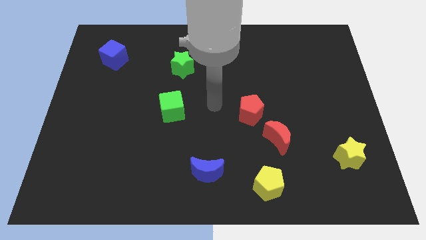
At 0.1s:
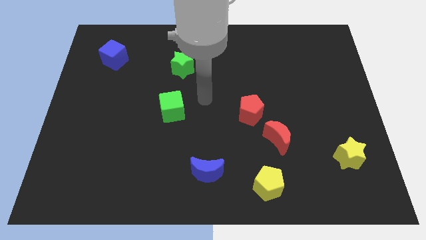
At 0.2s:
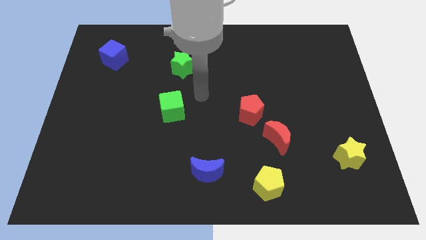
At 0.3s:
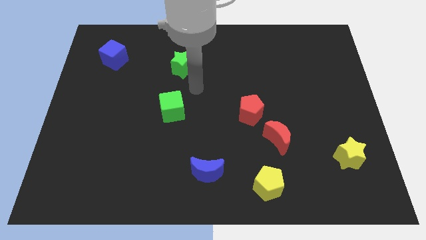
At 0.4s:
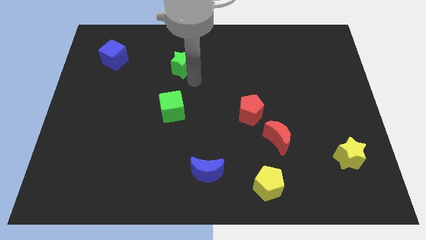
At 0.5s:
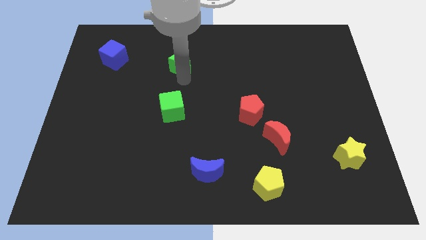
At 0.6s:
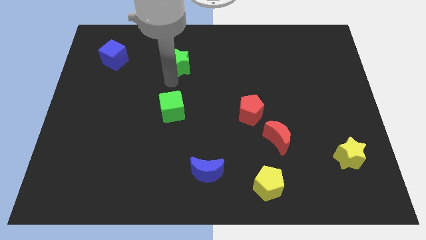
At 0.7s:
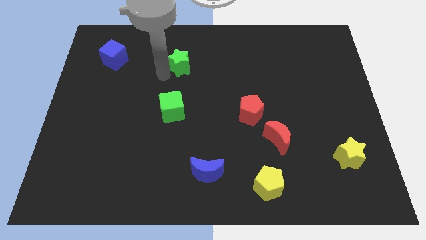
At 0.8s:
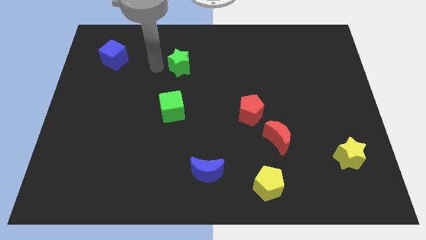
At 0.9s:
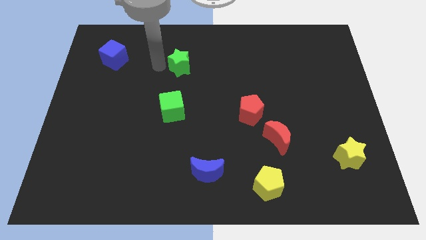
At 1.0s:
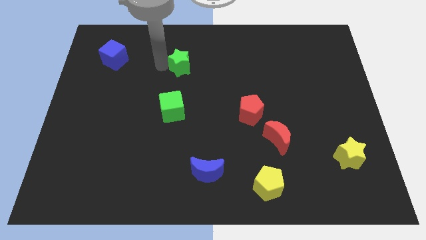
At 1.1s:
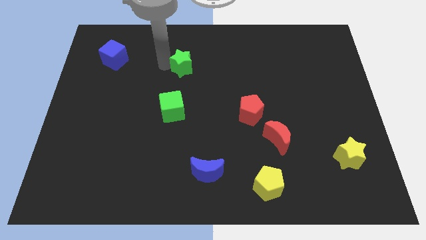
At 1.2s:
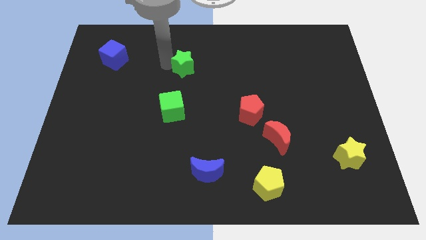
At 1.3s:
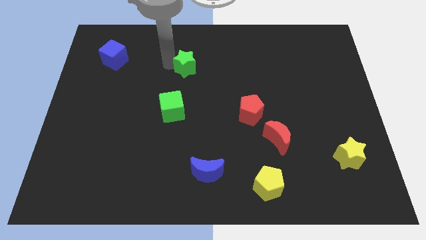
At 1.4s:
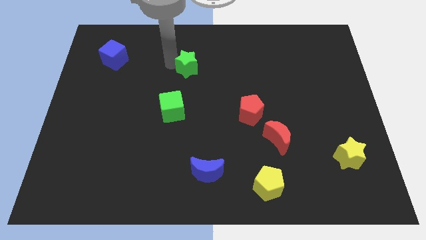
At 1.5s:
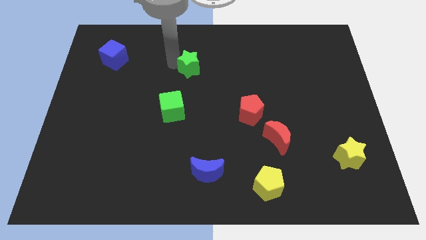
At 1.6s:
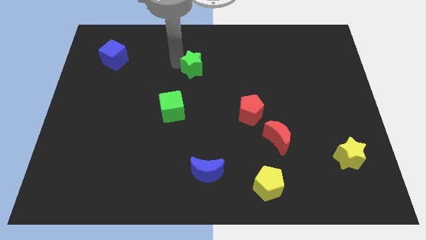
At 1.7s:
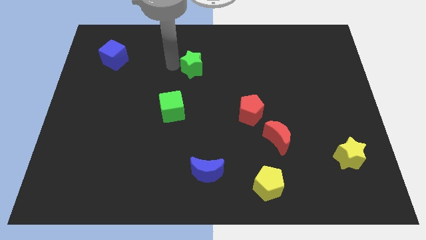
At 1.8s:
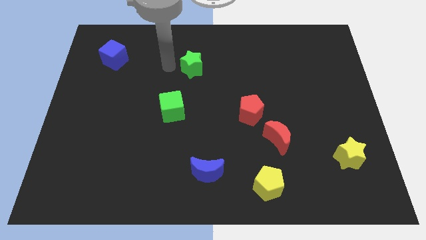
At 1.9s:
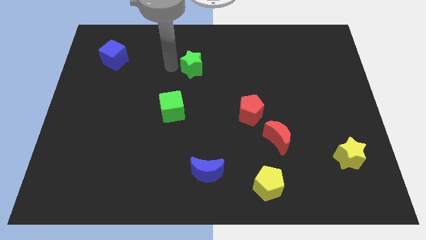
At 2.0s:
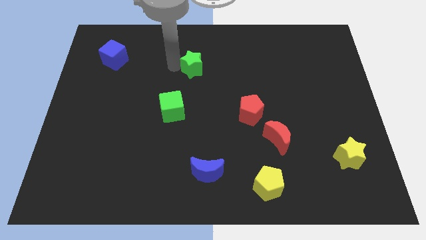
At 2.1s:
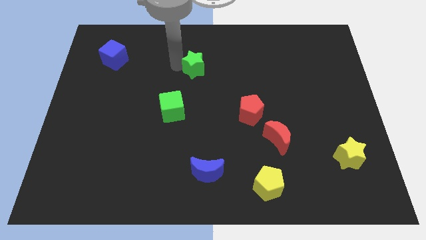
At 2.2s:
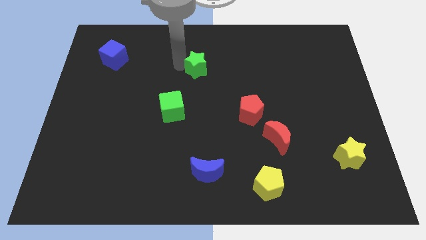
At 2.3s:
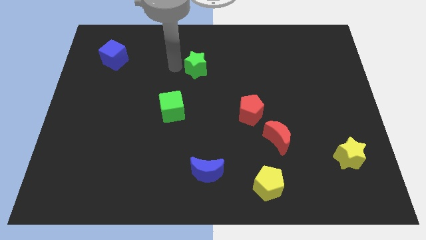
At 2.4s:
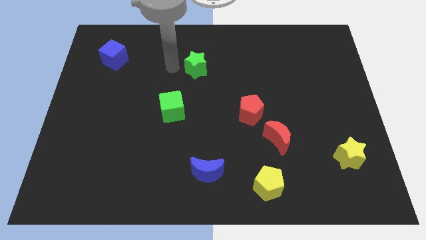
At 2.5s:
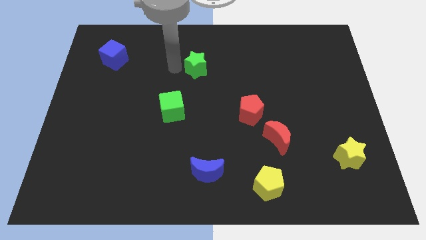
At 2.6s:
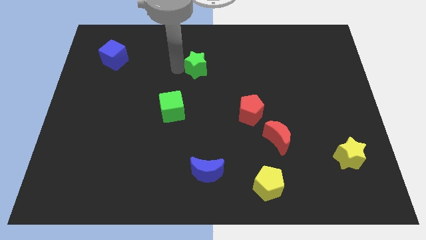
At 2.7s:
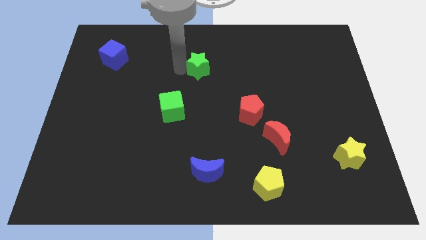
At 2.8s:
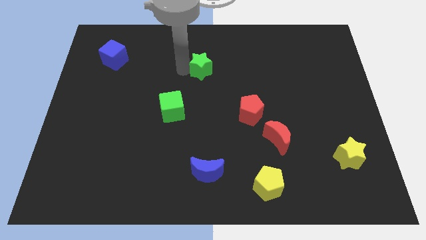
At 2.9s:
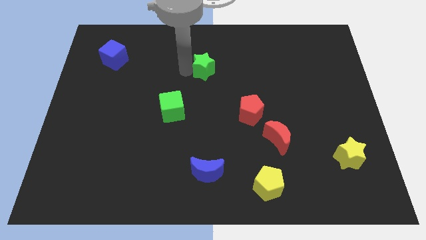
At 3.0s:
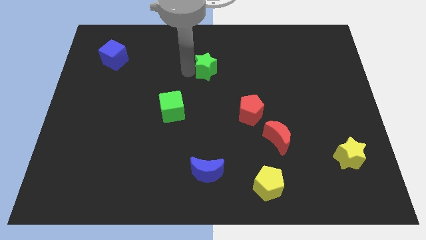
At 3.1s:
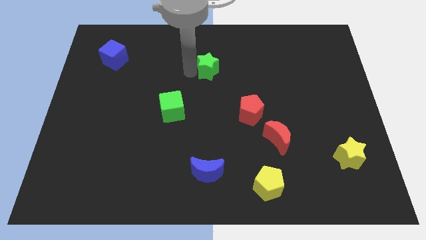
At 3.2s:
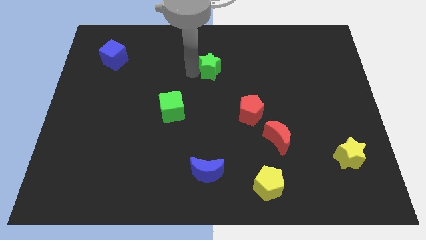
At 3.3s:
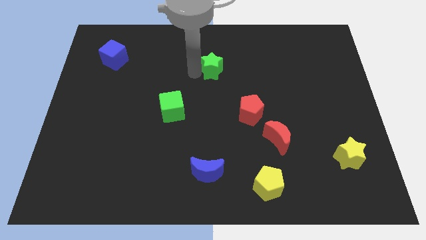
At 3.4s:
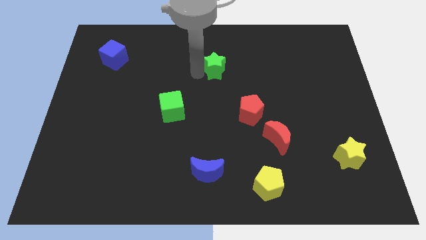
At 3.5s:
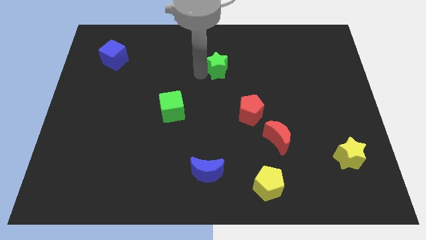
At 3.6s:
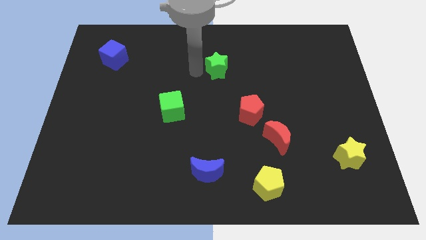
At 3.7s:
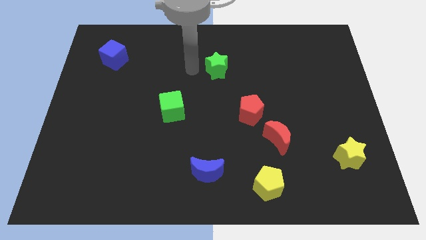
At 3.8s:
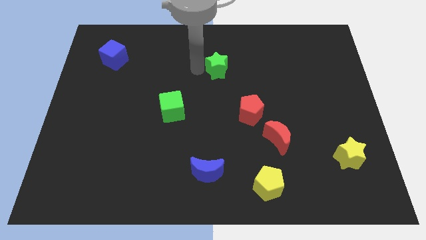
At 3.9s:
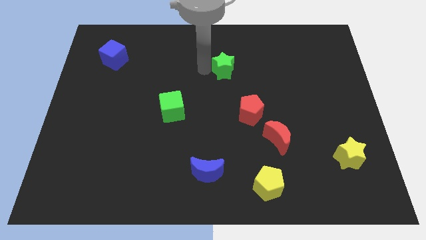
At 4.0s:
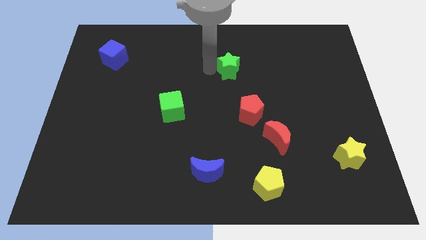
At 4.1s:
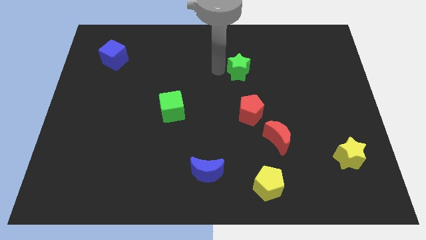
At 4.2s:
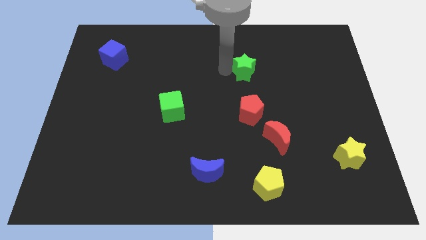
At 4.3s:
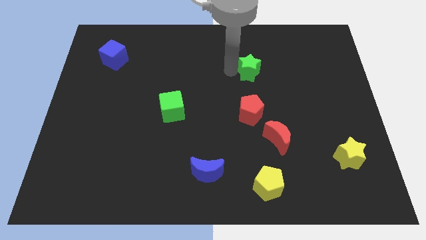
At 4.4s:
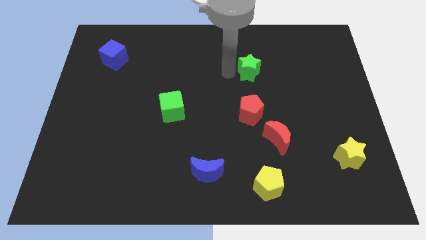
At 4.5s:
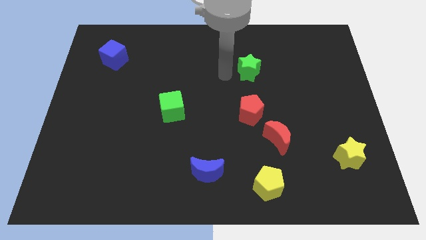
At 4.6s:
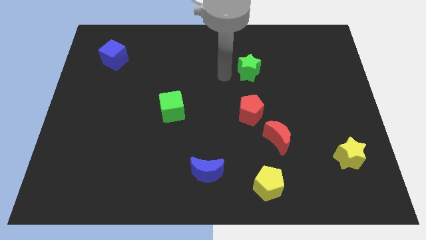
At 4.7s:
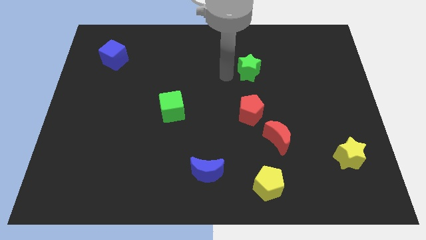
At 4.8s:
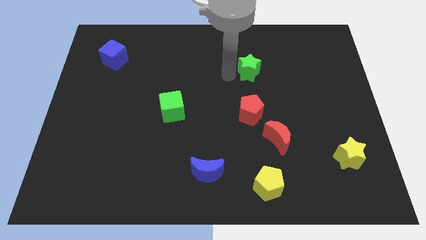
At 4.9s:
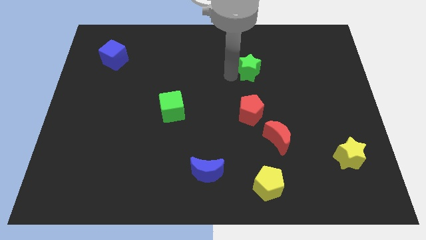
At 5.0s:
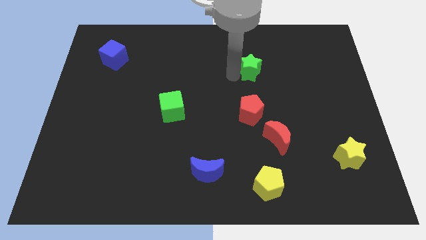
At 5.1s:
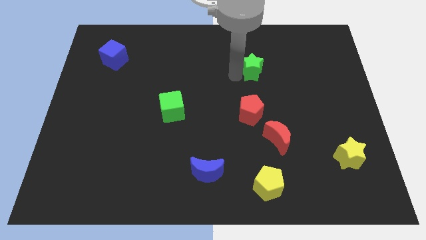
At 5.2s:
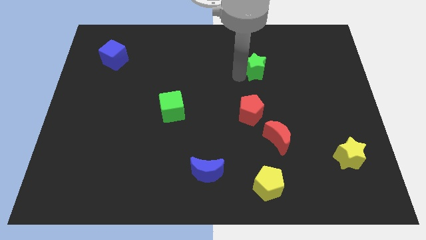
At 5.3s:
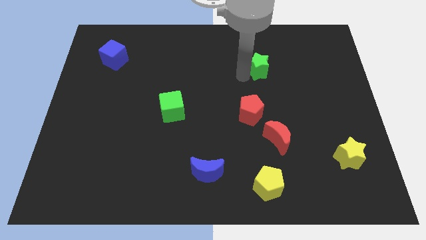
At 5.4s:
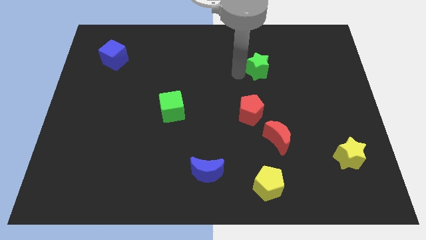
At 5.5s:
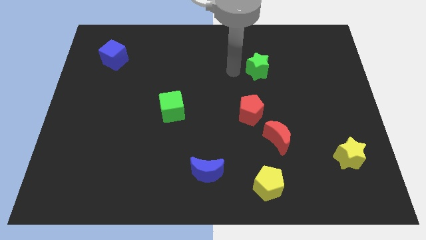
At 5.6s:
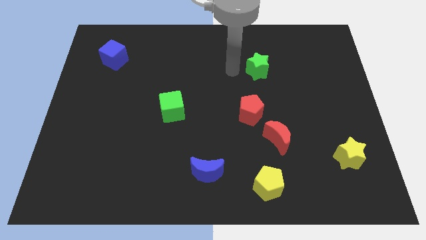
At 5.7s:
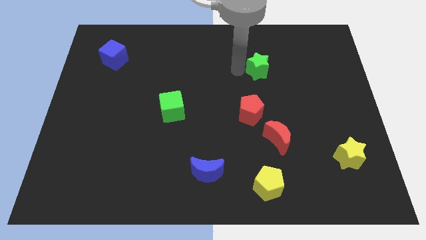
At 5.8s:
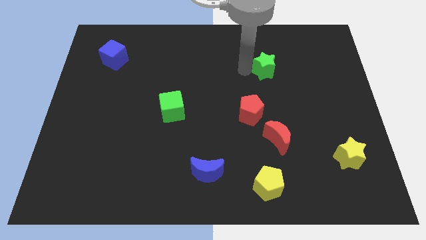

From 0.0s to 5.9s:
push the green star right

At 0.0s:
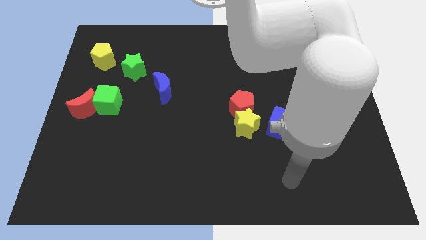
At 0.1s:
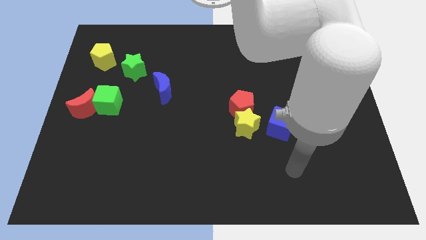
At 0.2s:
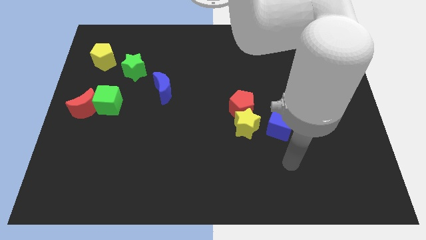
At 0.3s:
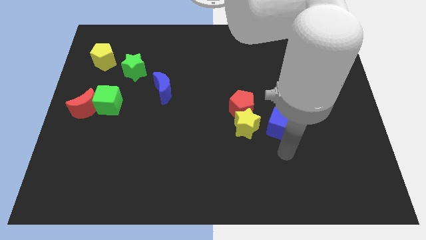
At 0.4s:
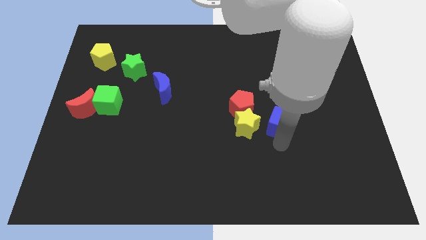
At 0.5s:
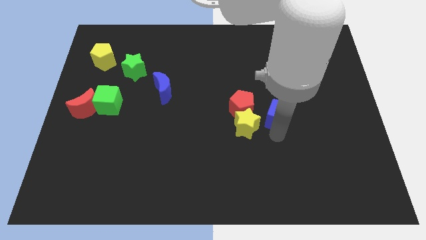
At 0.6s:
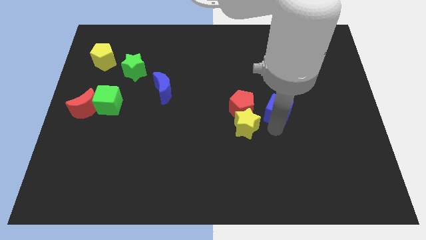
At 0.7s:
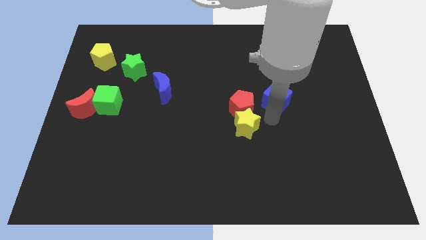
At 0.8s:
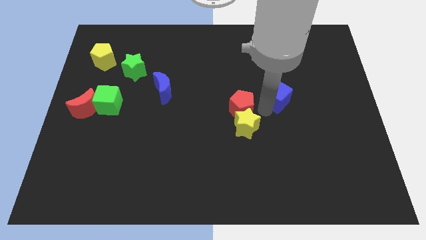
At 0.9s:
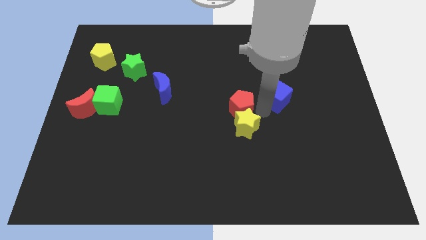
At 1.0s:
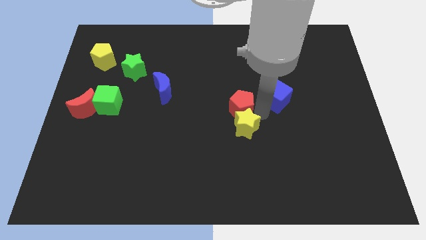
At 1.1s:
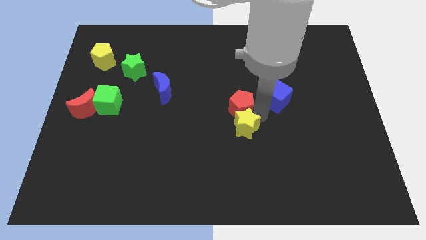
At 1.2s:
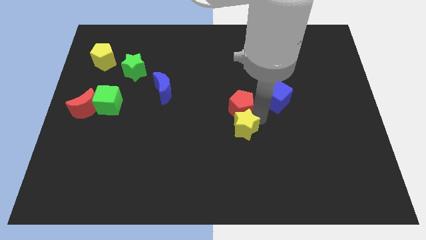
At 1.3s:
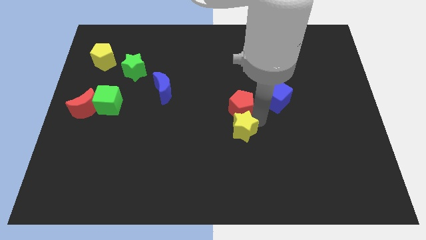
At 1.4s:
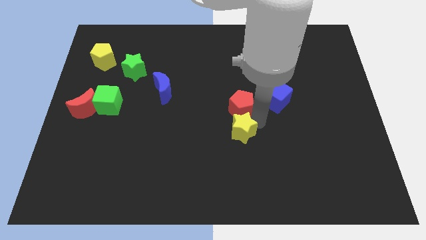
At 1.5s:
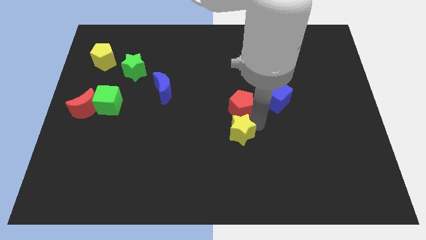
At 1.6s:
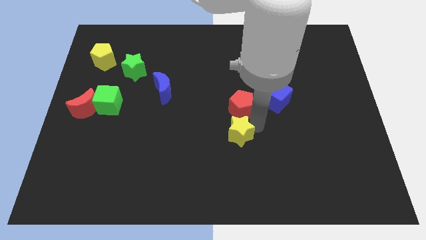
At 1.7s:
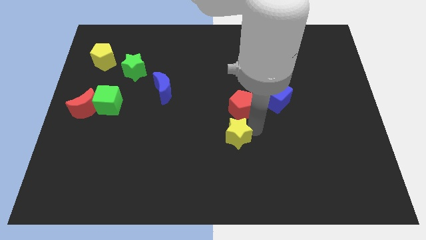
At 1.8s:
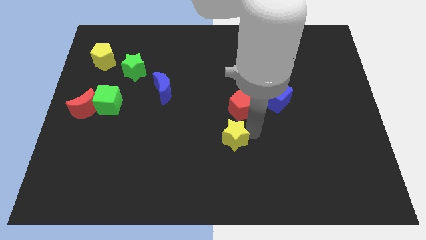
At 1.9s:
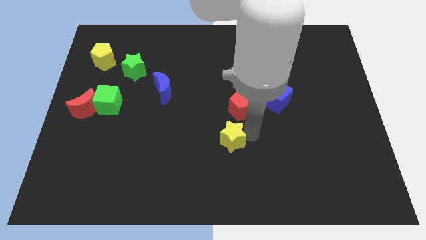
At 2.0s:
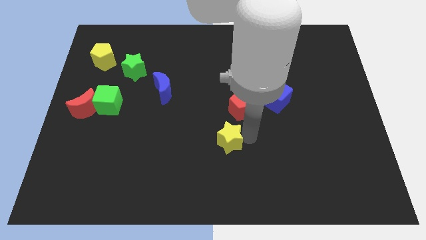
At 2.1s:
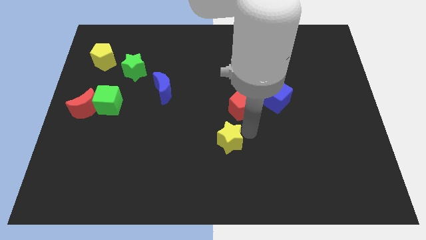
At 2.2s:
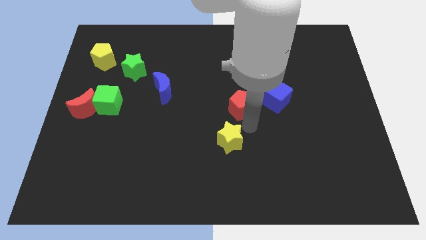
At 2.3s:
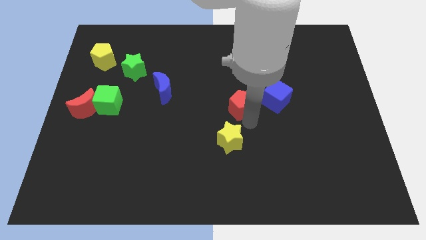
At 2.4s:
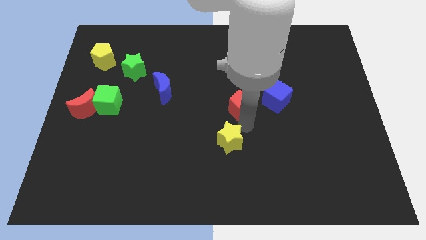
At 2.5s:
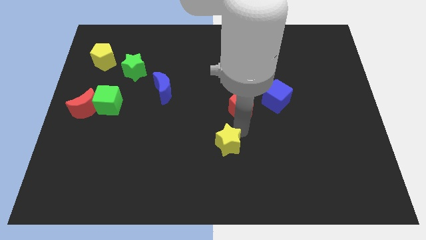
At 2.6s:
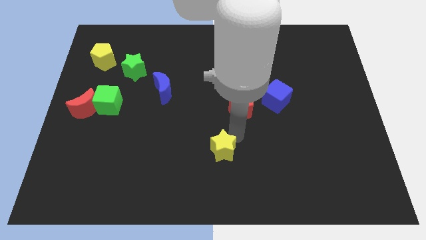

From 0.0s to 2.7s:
move the yellow star slightly downwards and then to the left
